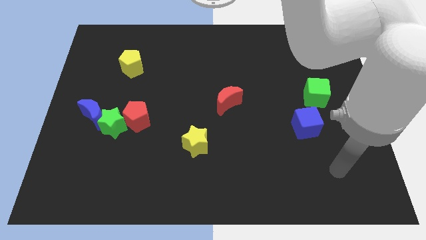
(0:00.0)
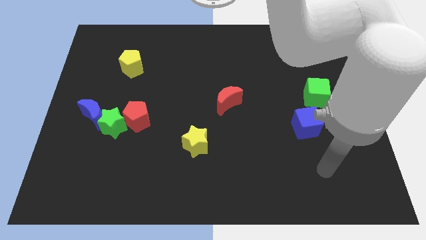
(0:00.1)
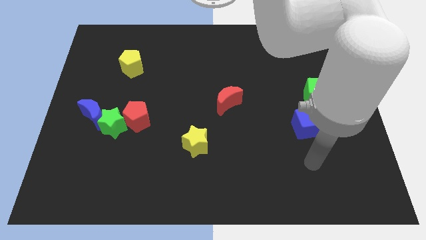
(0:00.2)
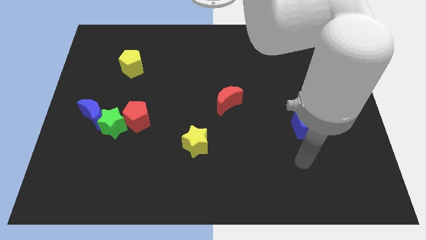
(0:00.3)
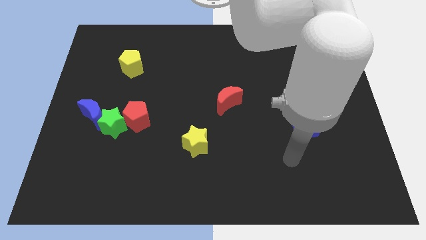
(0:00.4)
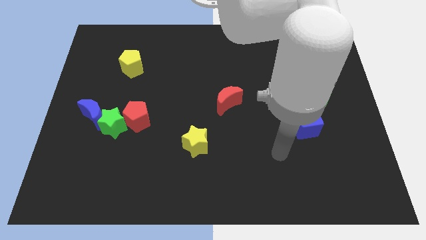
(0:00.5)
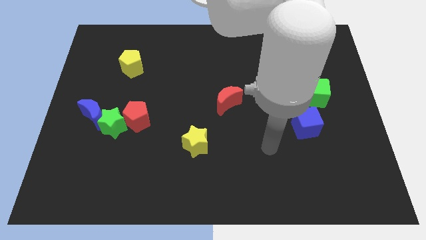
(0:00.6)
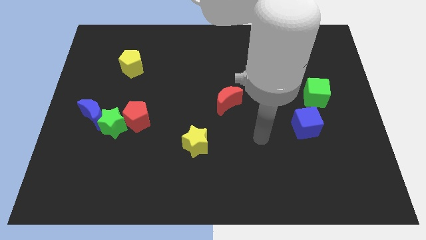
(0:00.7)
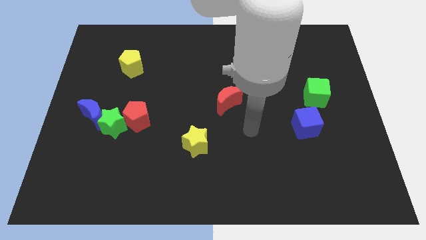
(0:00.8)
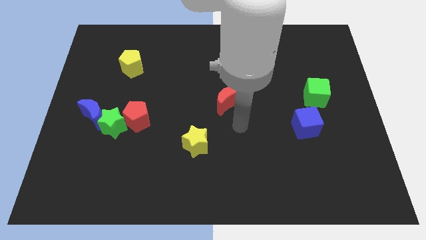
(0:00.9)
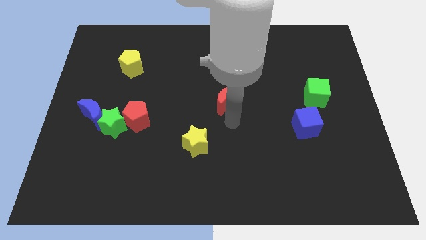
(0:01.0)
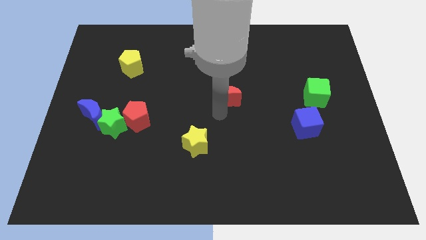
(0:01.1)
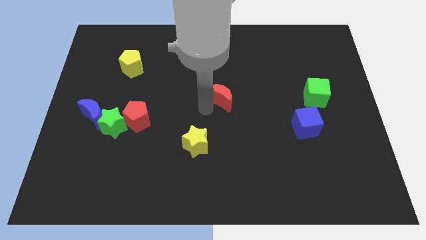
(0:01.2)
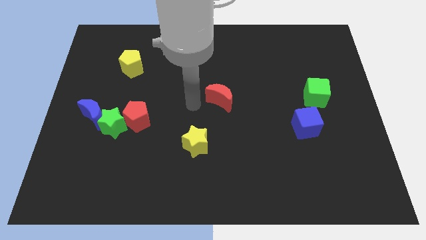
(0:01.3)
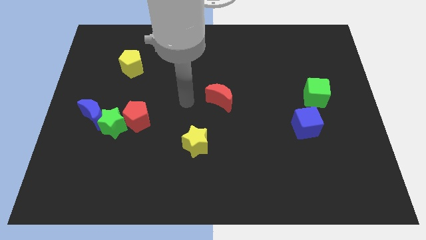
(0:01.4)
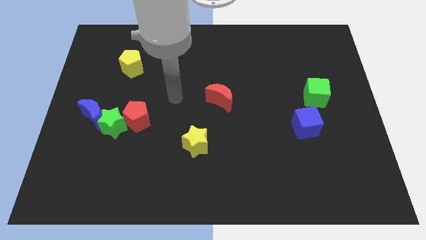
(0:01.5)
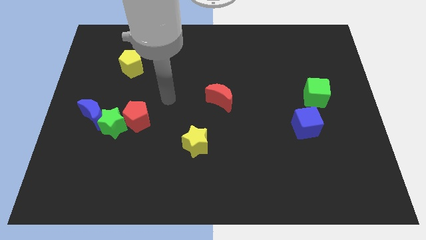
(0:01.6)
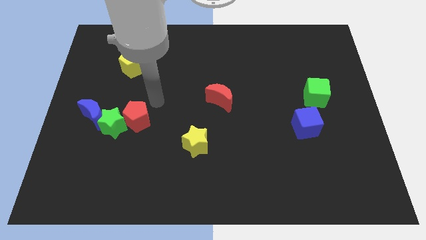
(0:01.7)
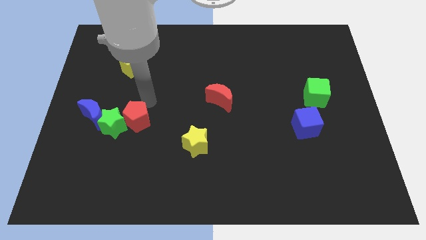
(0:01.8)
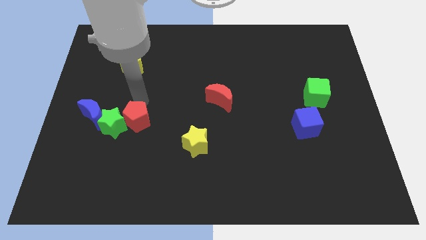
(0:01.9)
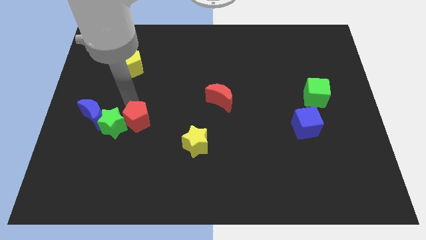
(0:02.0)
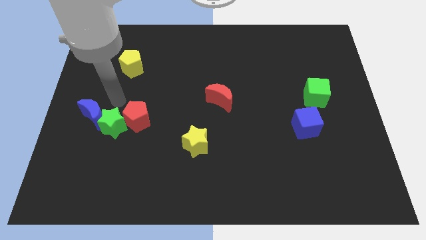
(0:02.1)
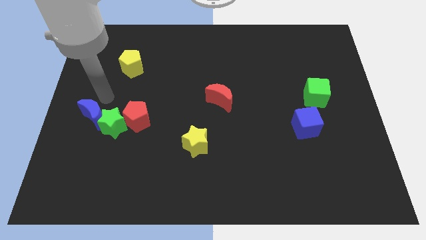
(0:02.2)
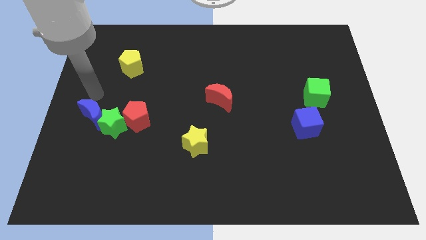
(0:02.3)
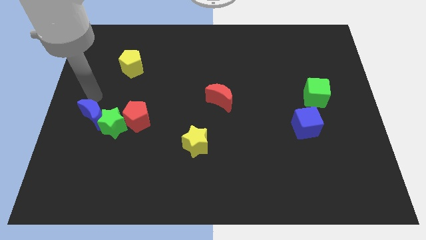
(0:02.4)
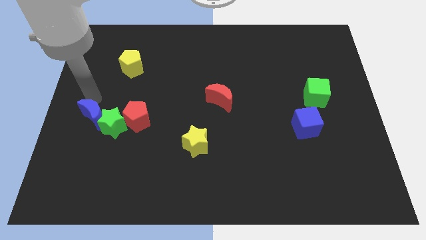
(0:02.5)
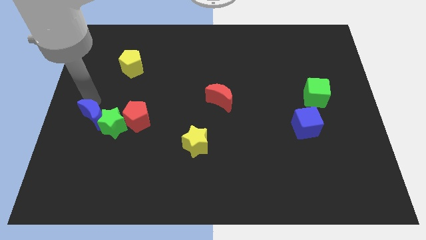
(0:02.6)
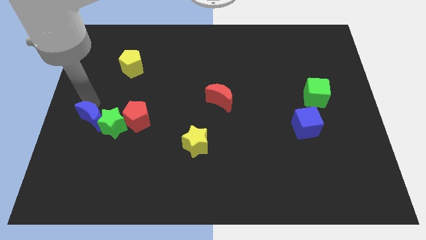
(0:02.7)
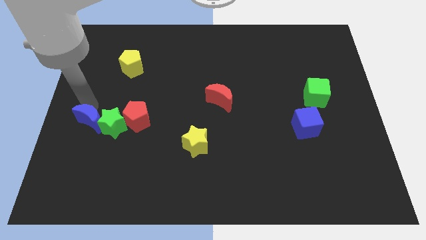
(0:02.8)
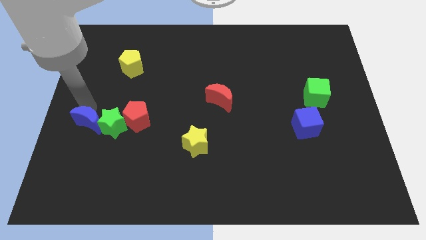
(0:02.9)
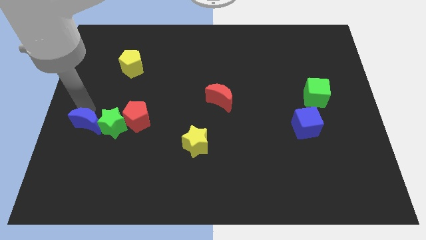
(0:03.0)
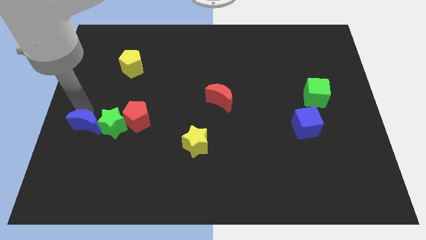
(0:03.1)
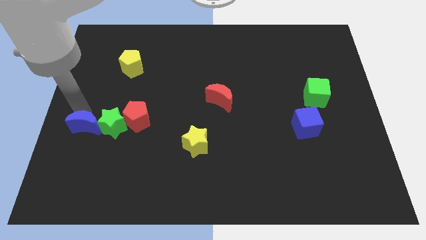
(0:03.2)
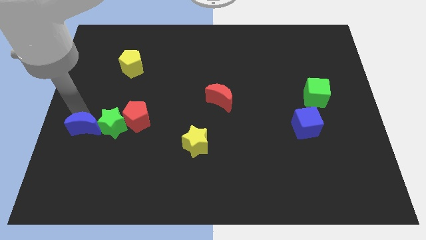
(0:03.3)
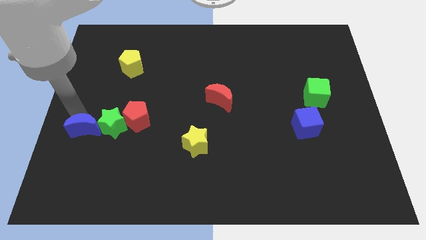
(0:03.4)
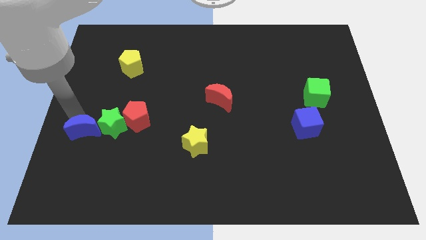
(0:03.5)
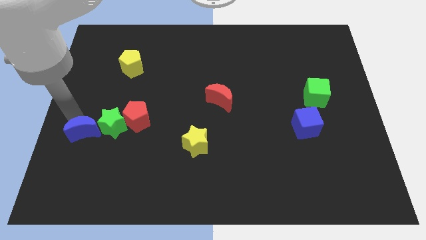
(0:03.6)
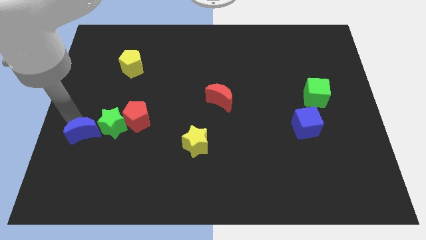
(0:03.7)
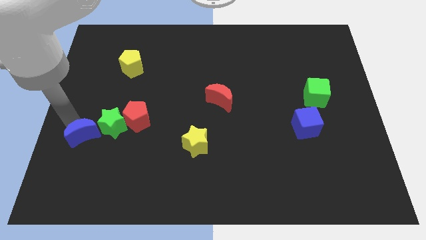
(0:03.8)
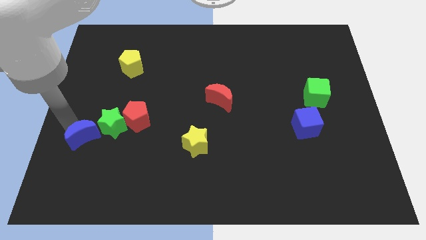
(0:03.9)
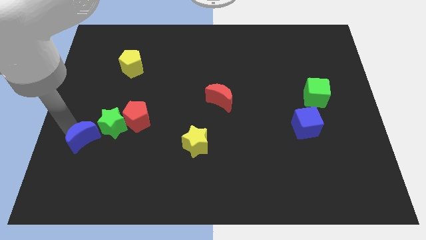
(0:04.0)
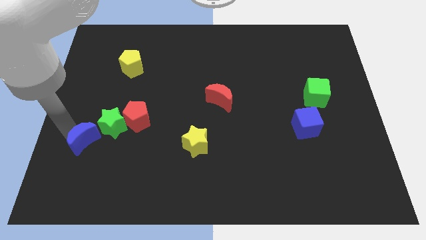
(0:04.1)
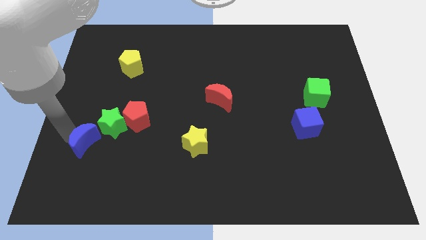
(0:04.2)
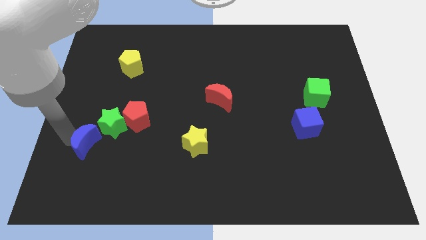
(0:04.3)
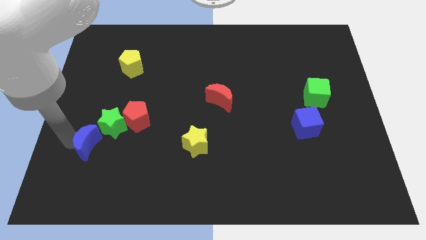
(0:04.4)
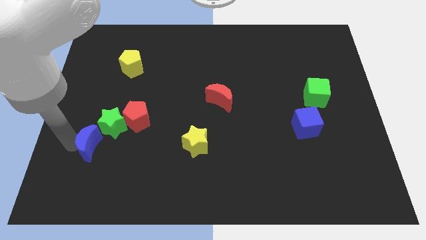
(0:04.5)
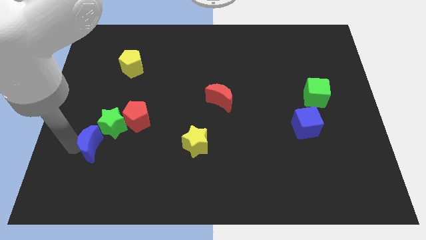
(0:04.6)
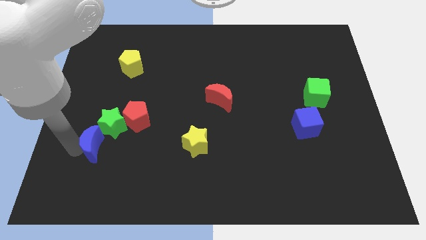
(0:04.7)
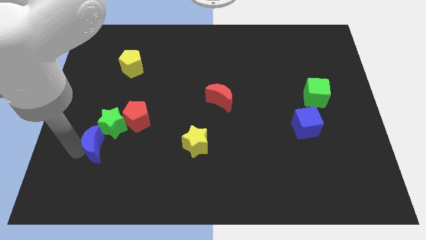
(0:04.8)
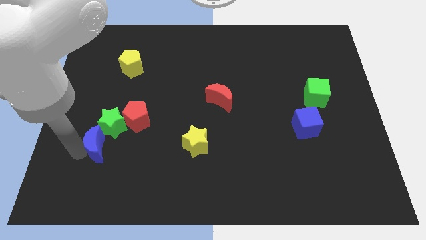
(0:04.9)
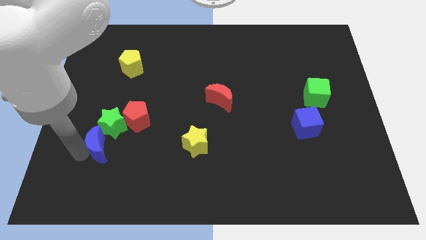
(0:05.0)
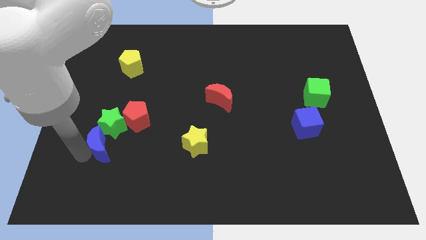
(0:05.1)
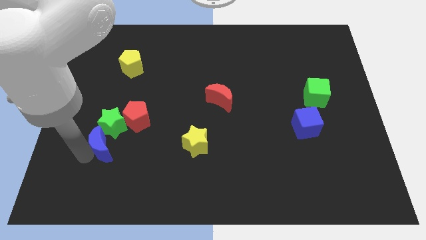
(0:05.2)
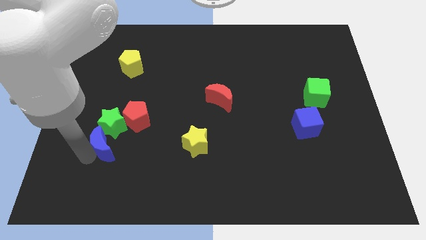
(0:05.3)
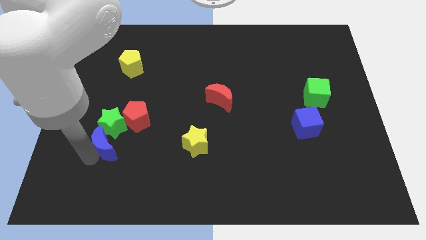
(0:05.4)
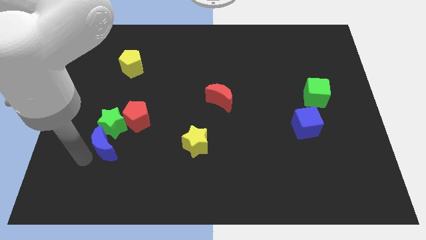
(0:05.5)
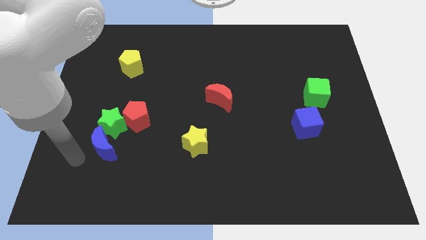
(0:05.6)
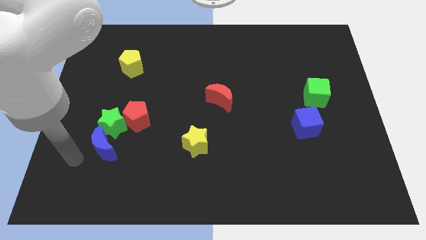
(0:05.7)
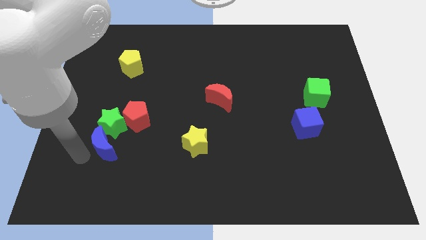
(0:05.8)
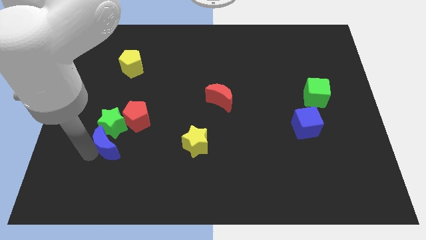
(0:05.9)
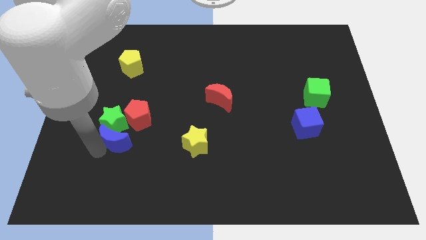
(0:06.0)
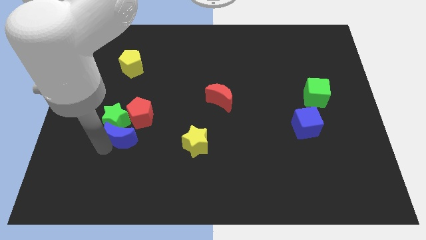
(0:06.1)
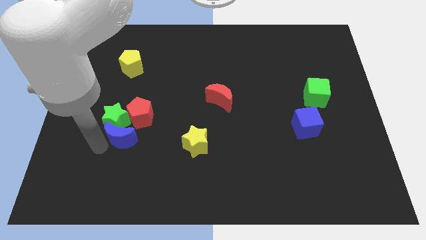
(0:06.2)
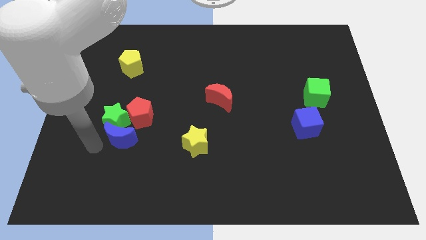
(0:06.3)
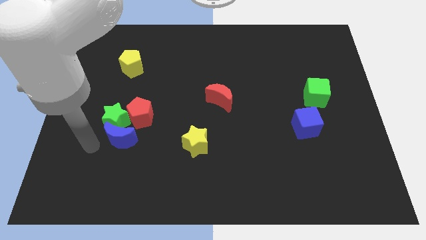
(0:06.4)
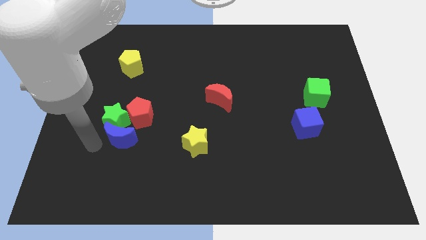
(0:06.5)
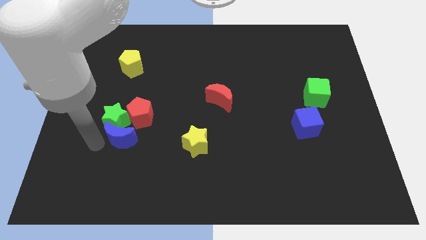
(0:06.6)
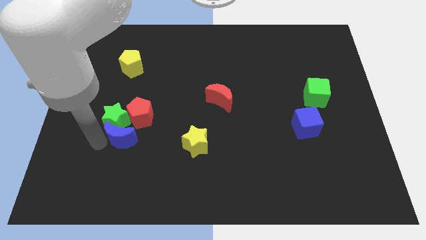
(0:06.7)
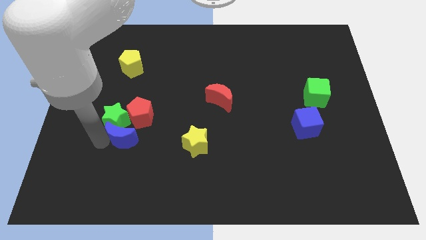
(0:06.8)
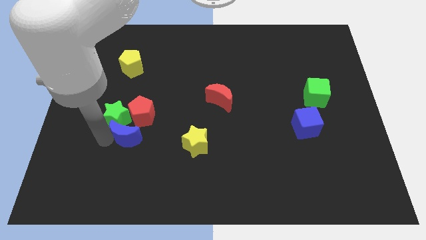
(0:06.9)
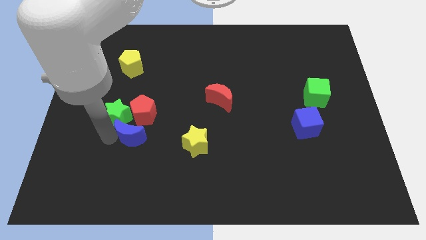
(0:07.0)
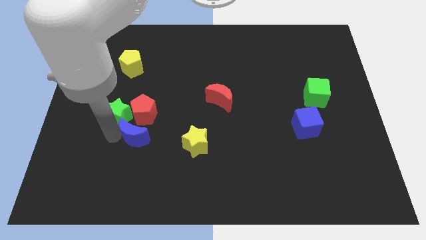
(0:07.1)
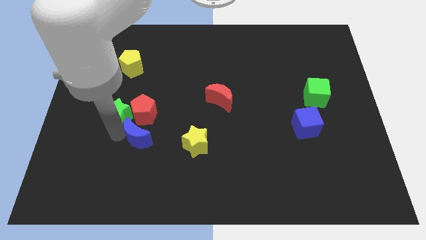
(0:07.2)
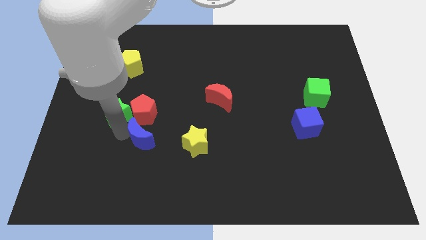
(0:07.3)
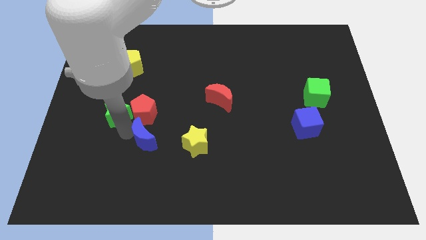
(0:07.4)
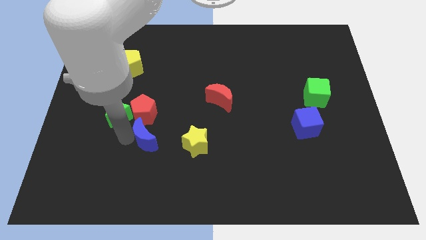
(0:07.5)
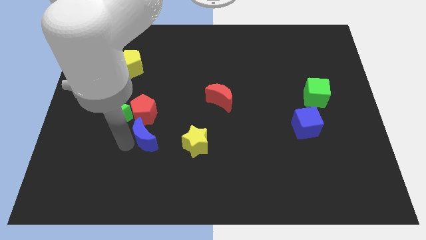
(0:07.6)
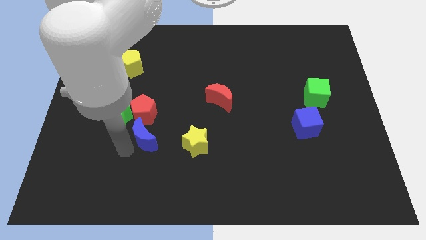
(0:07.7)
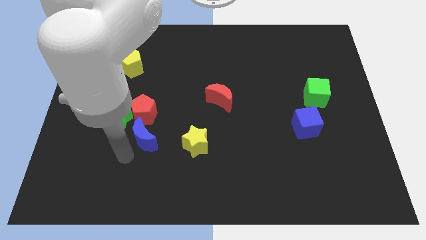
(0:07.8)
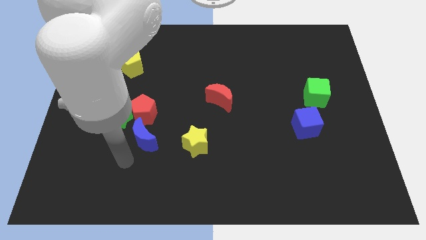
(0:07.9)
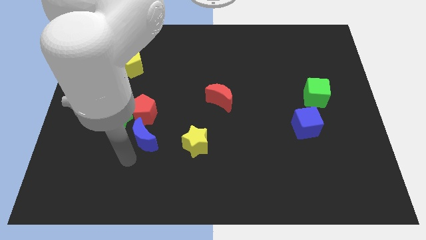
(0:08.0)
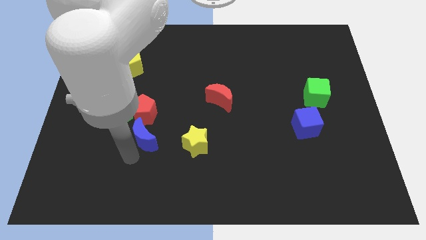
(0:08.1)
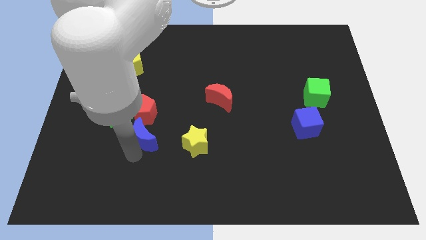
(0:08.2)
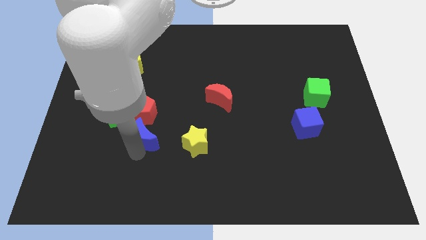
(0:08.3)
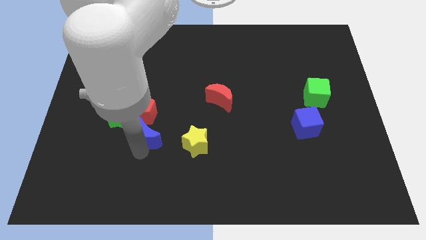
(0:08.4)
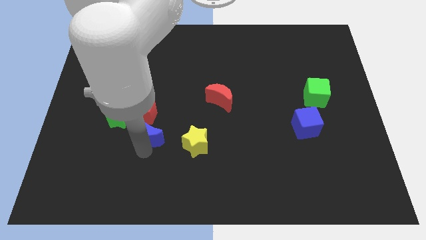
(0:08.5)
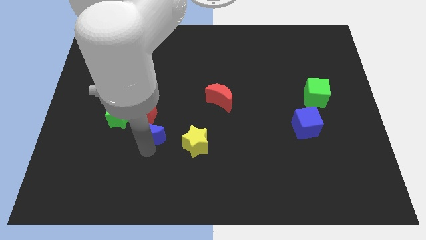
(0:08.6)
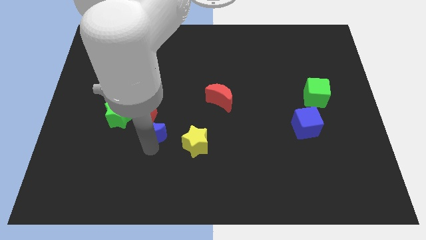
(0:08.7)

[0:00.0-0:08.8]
put the blue moon to the right of the green star
